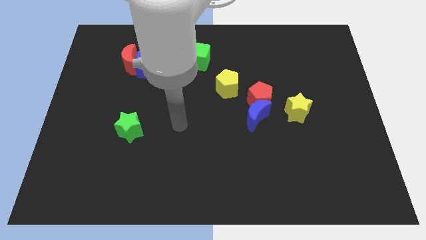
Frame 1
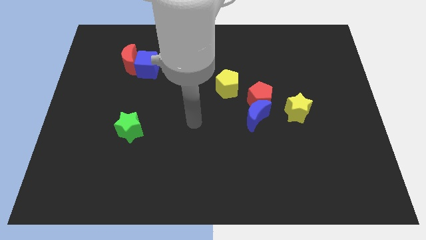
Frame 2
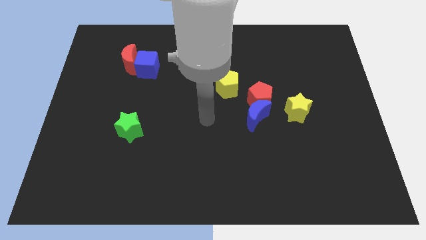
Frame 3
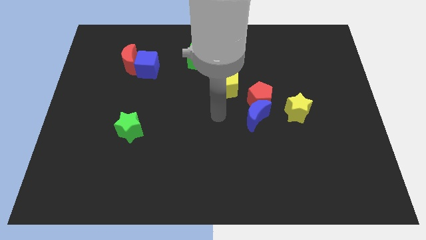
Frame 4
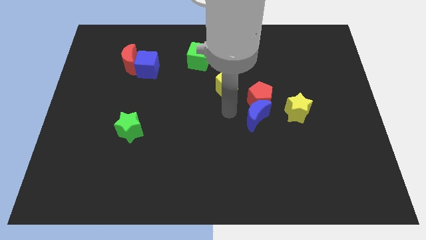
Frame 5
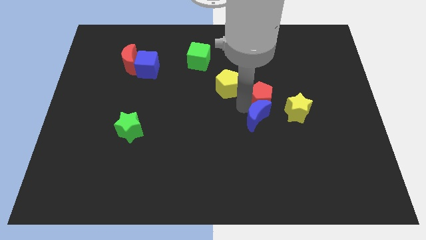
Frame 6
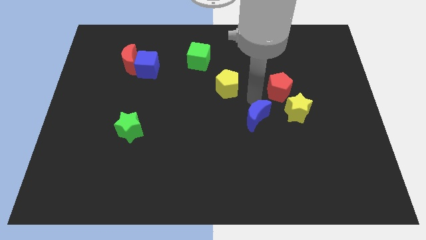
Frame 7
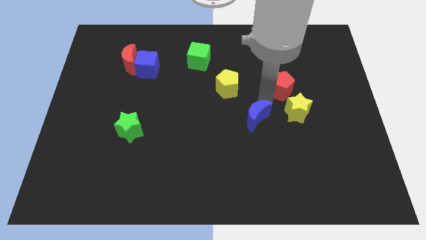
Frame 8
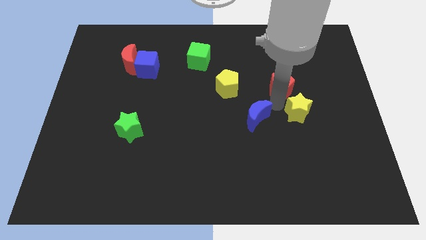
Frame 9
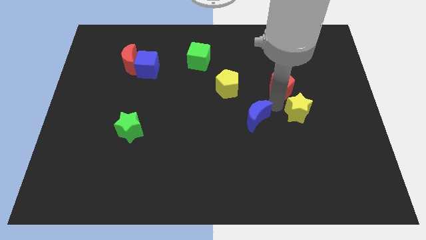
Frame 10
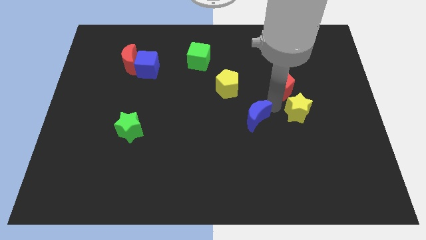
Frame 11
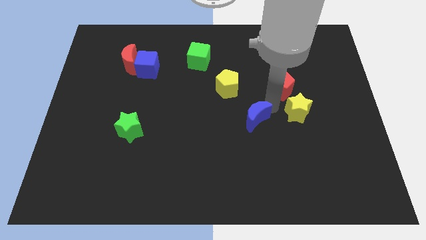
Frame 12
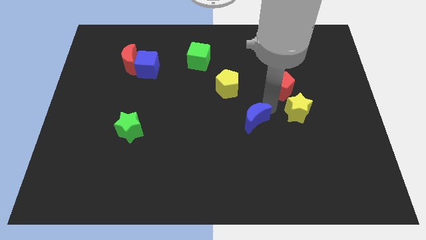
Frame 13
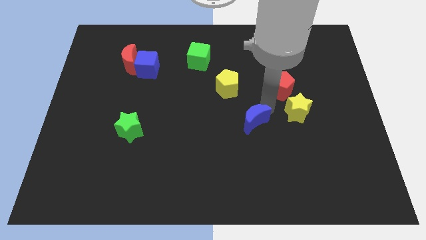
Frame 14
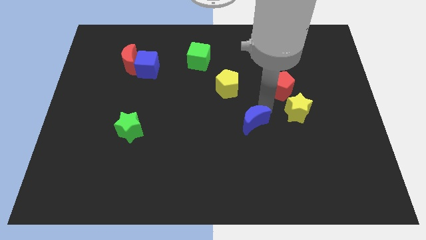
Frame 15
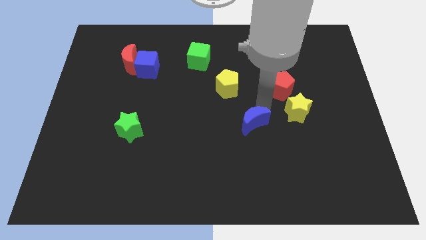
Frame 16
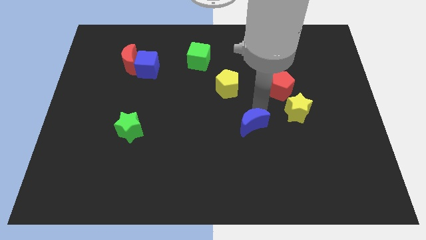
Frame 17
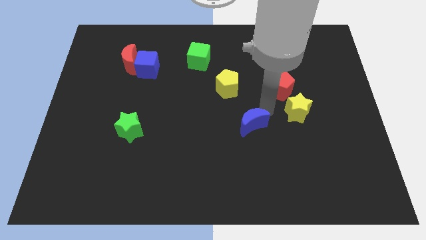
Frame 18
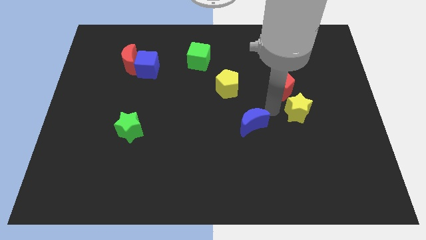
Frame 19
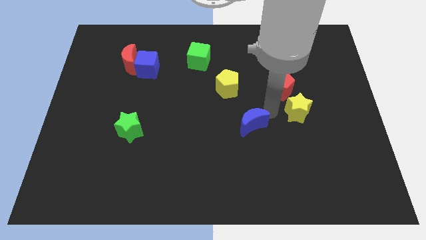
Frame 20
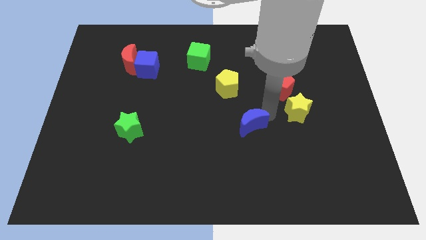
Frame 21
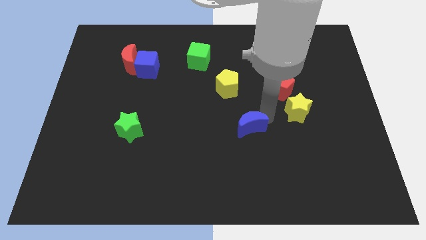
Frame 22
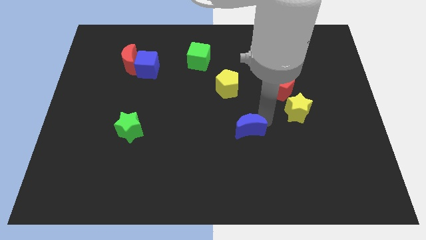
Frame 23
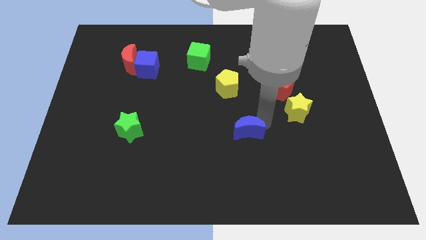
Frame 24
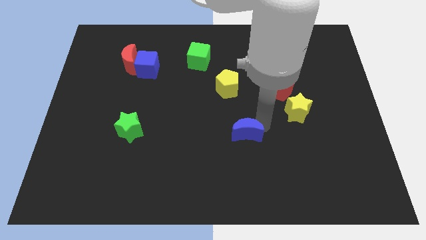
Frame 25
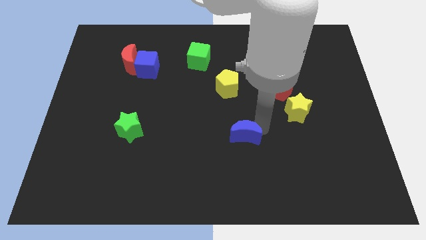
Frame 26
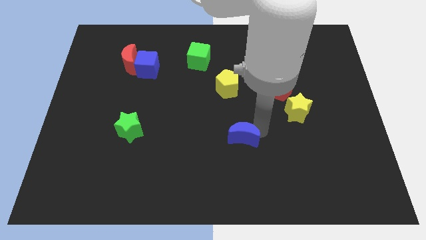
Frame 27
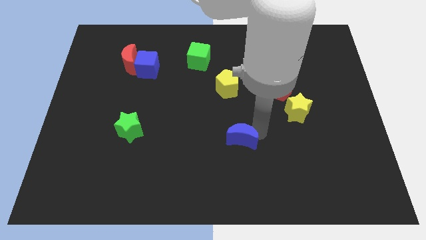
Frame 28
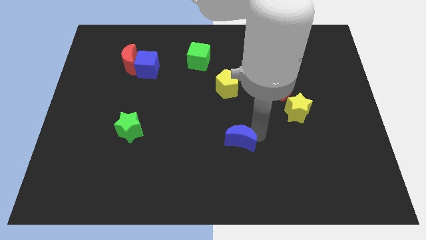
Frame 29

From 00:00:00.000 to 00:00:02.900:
slide the blue moon downwards and then to the left slightly

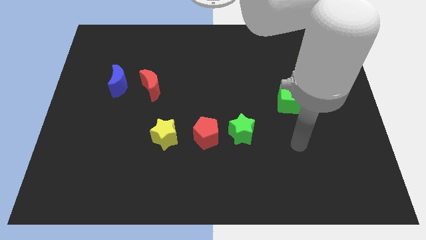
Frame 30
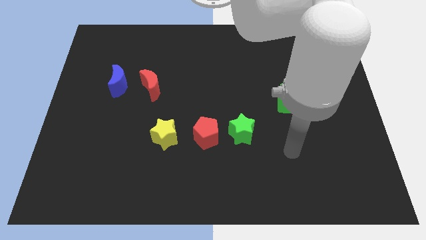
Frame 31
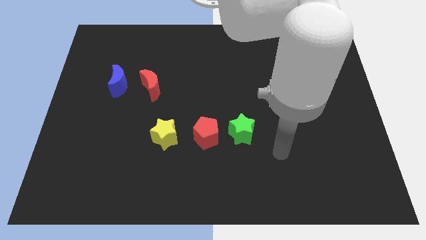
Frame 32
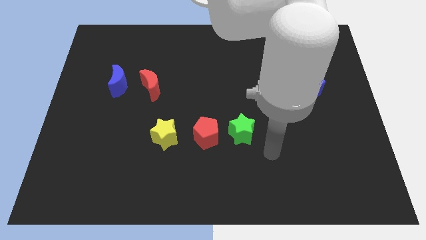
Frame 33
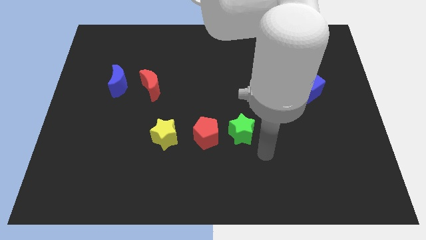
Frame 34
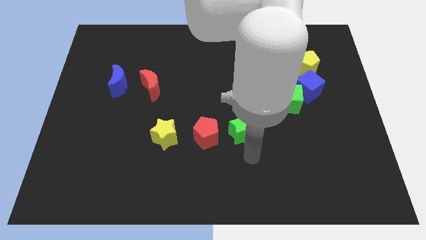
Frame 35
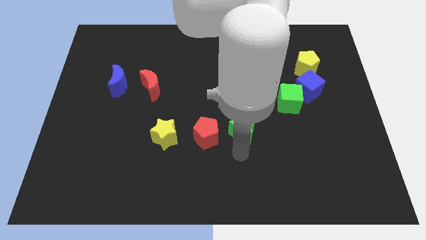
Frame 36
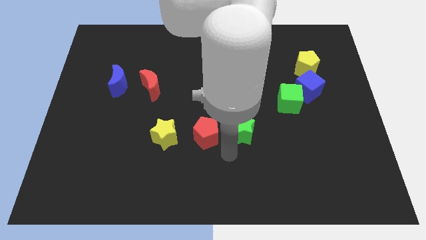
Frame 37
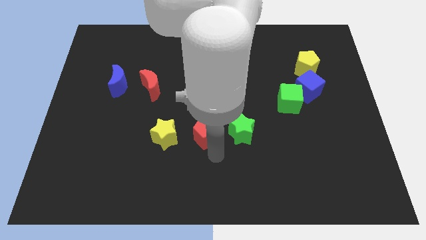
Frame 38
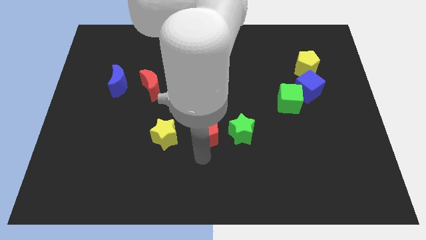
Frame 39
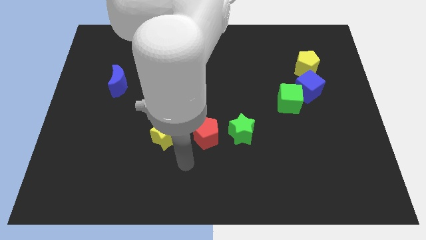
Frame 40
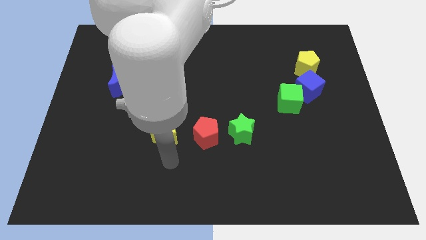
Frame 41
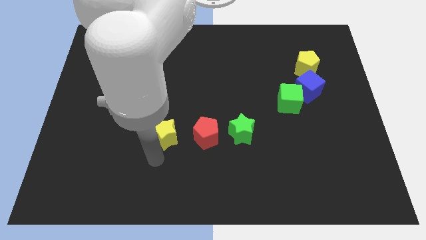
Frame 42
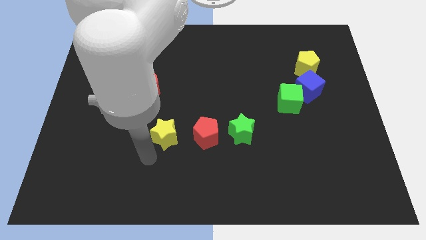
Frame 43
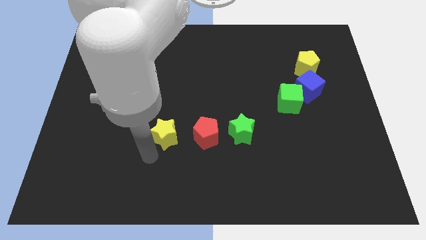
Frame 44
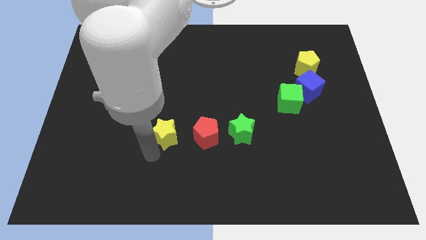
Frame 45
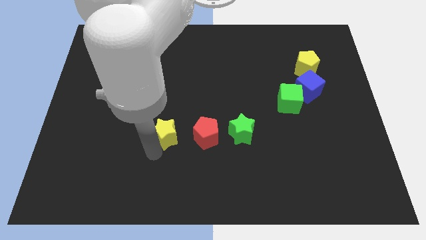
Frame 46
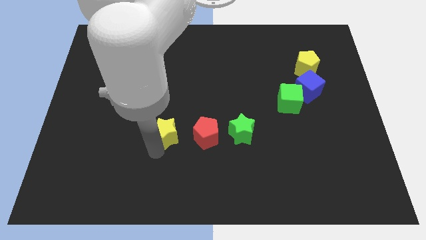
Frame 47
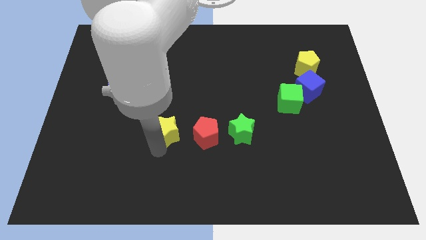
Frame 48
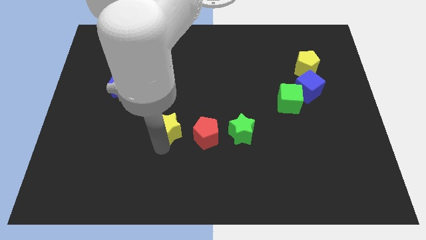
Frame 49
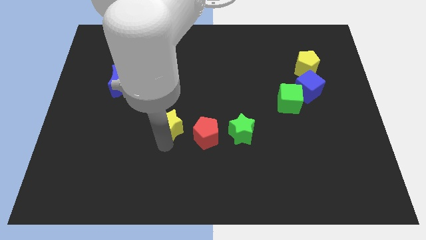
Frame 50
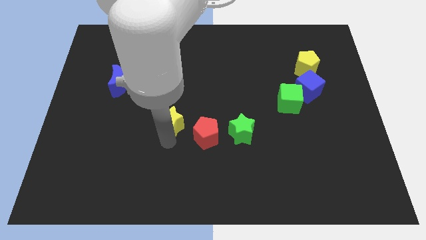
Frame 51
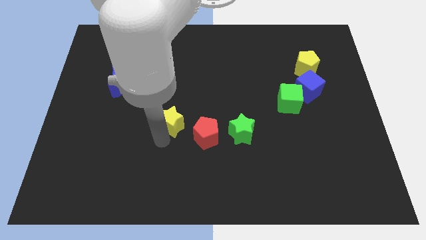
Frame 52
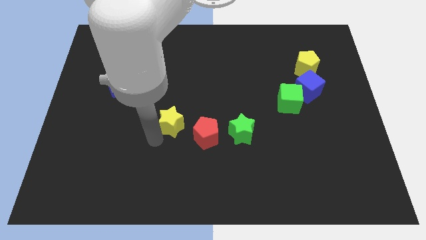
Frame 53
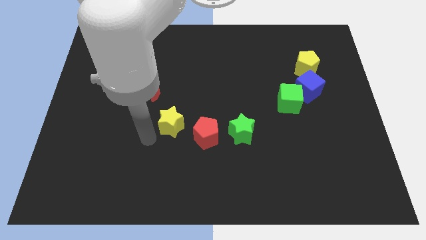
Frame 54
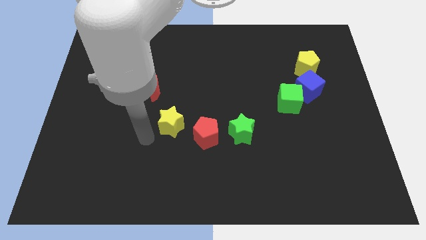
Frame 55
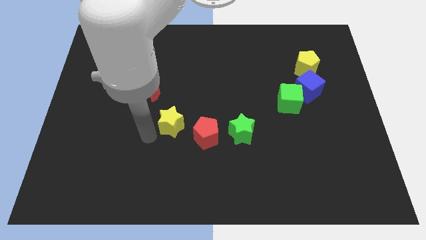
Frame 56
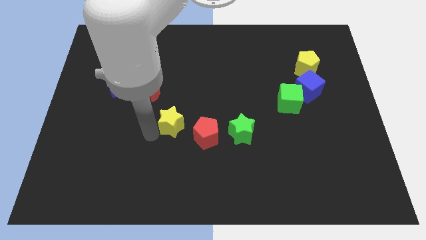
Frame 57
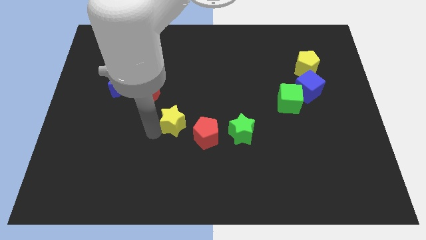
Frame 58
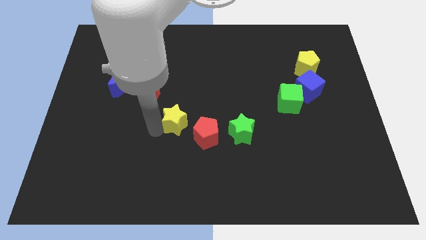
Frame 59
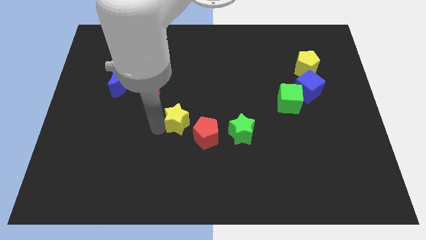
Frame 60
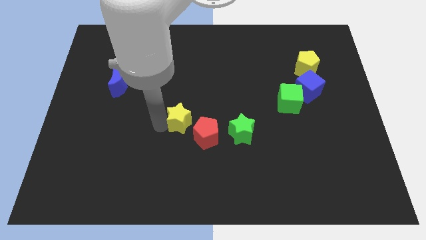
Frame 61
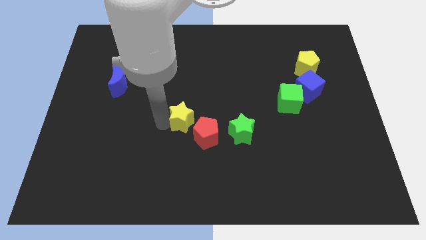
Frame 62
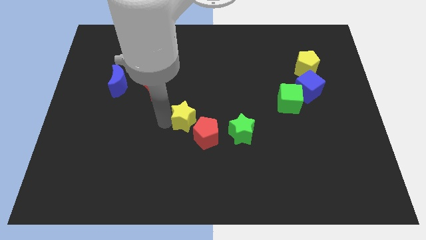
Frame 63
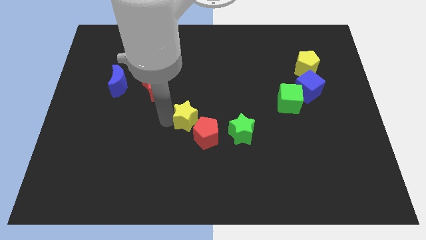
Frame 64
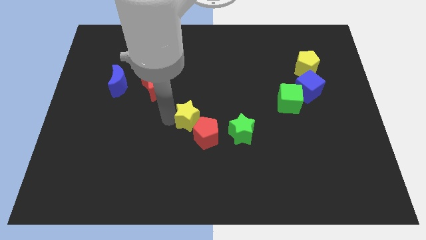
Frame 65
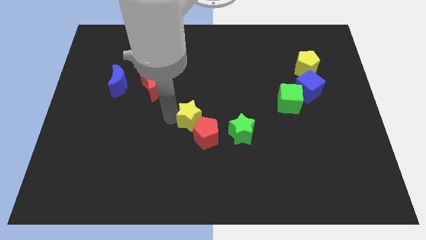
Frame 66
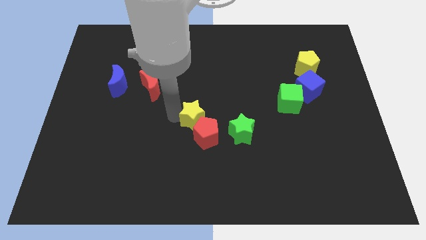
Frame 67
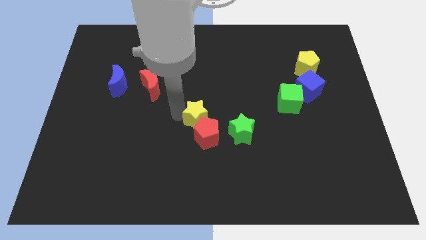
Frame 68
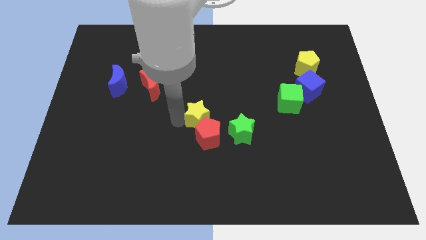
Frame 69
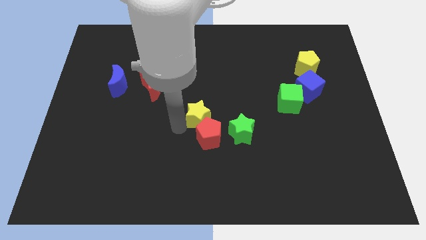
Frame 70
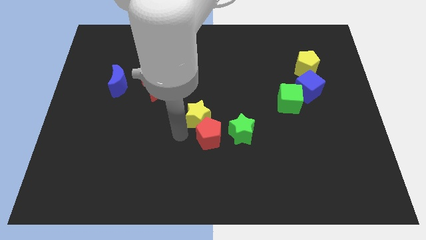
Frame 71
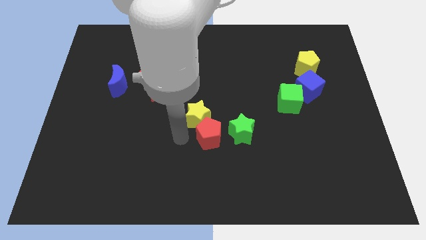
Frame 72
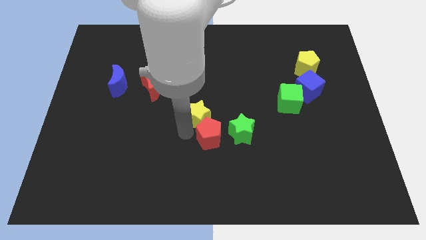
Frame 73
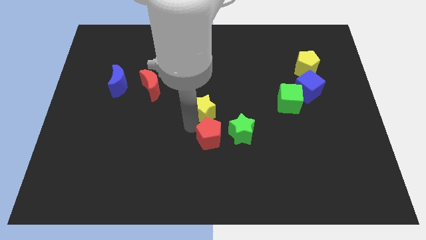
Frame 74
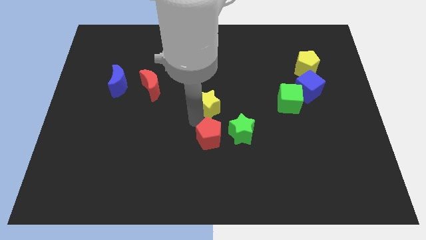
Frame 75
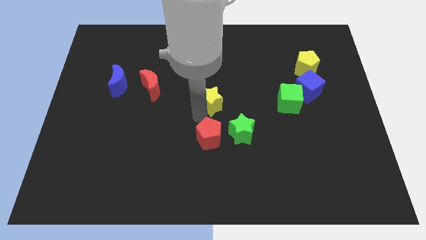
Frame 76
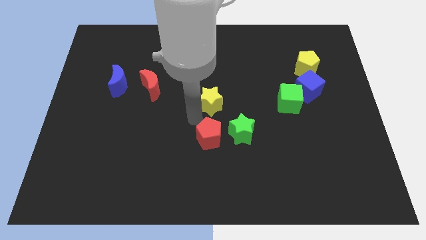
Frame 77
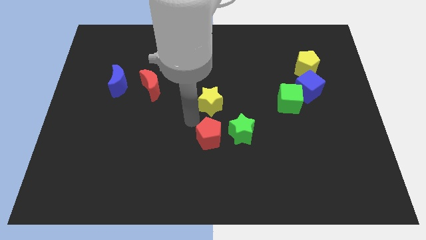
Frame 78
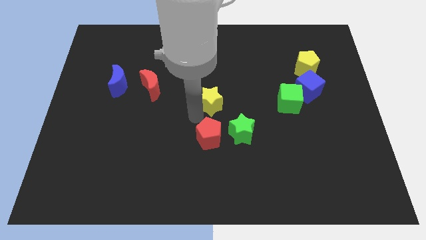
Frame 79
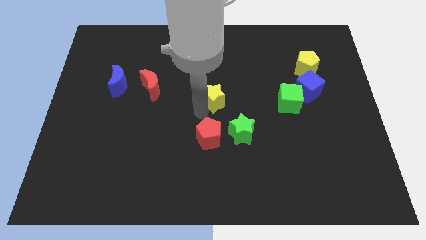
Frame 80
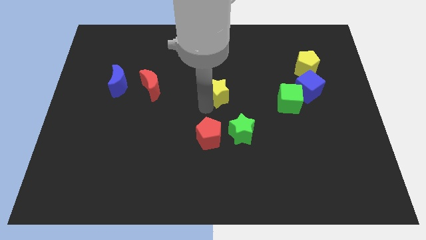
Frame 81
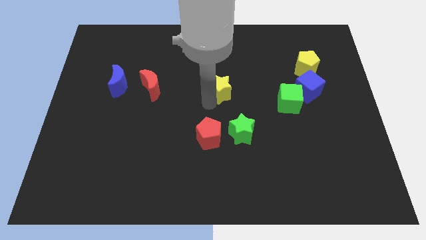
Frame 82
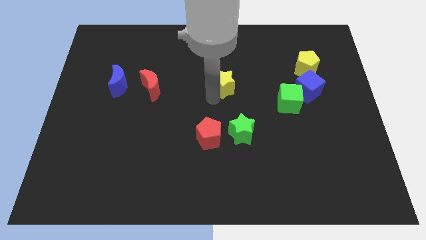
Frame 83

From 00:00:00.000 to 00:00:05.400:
push the yellow star diagonally up and right
